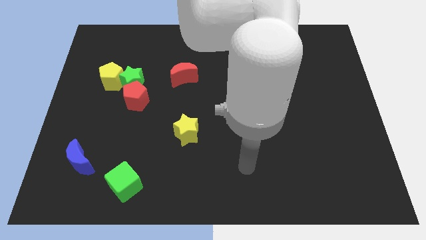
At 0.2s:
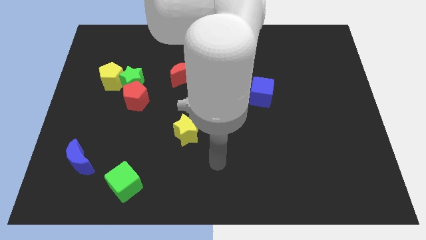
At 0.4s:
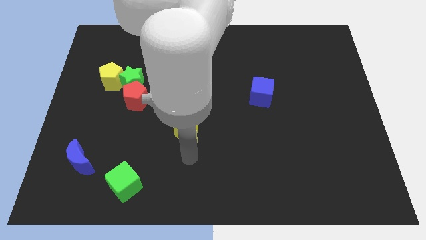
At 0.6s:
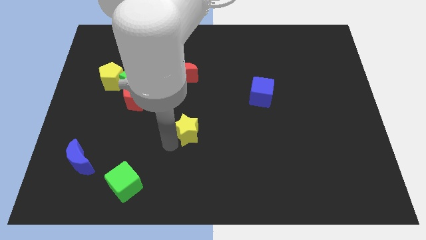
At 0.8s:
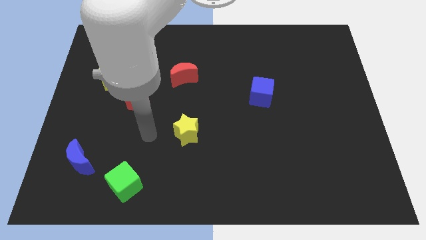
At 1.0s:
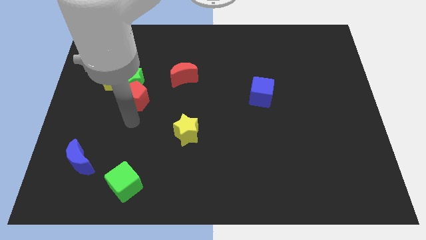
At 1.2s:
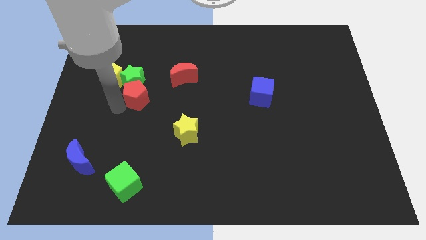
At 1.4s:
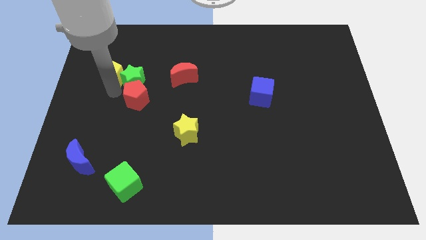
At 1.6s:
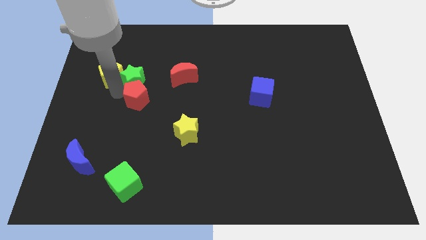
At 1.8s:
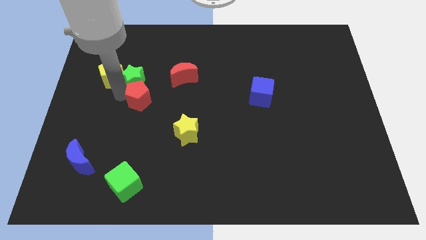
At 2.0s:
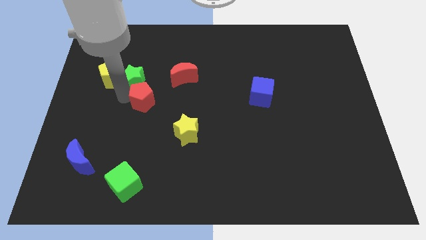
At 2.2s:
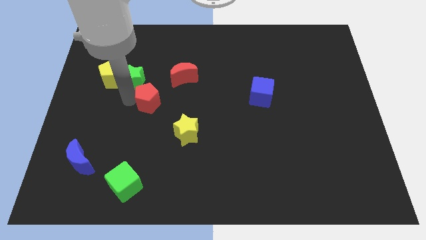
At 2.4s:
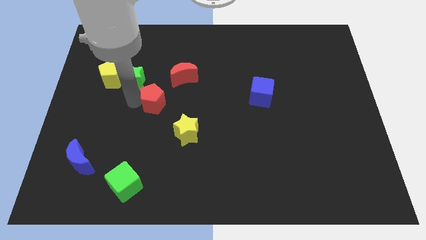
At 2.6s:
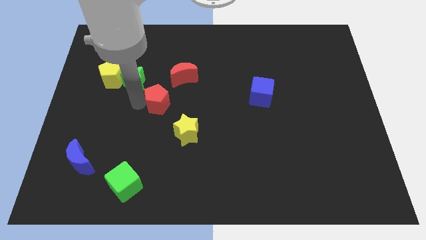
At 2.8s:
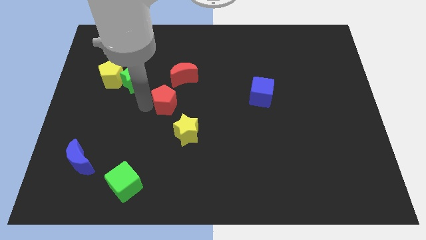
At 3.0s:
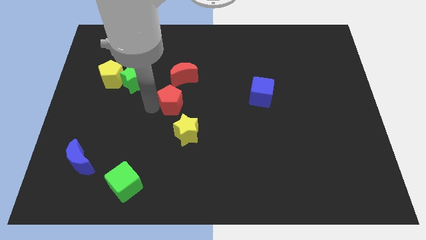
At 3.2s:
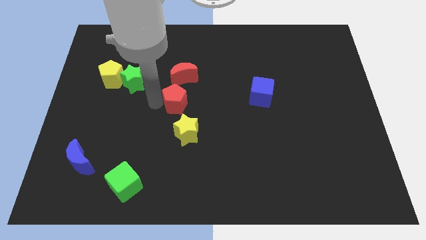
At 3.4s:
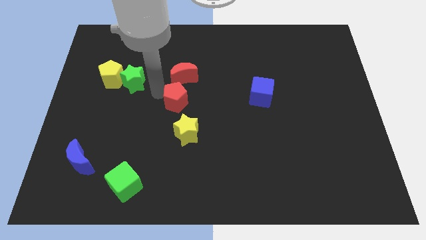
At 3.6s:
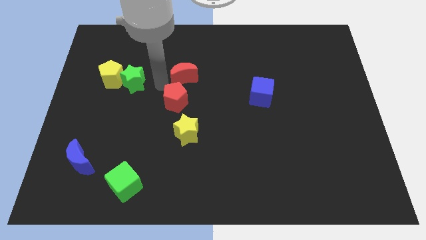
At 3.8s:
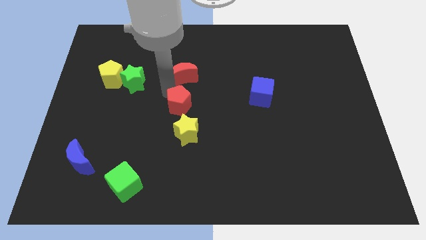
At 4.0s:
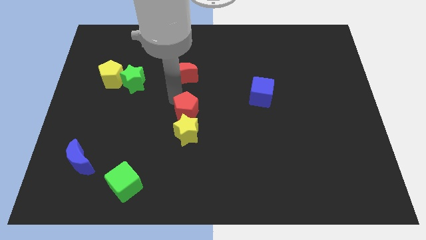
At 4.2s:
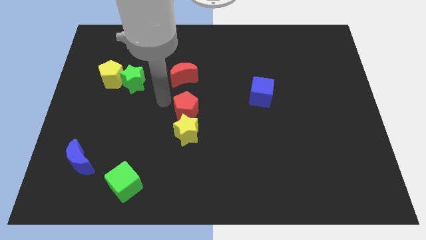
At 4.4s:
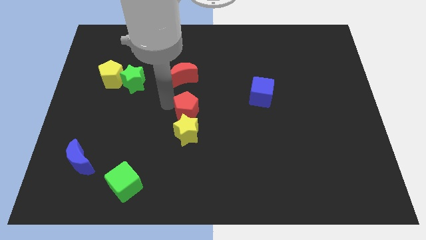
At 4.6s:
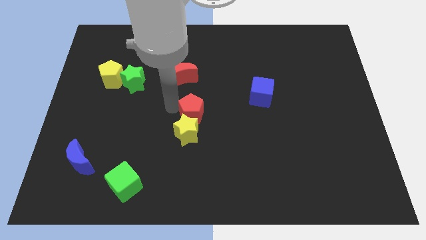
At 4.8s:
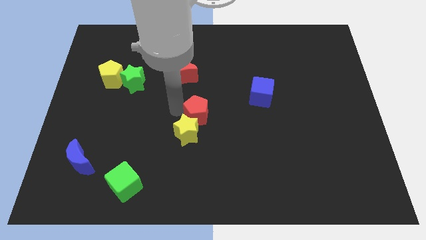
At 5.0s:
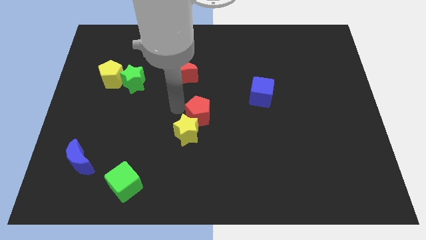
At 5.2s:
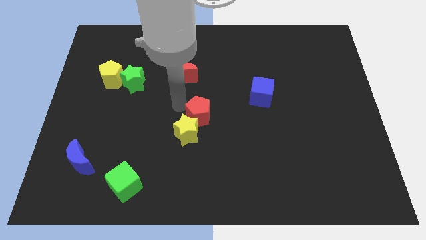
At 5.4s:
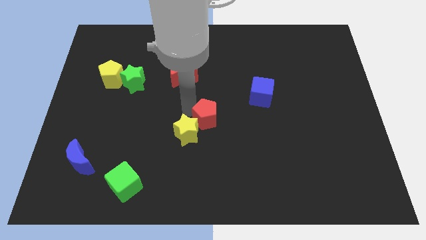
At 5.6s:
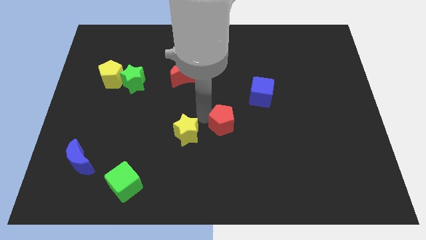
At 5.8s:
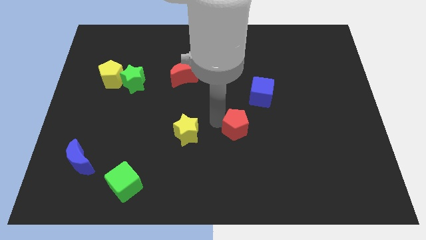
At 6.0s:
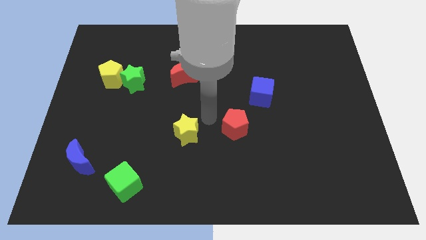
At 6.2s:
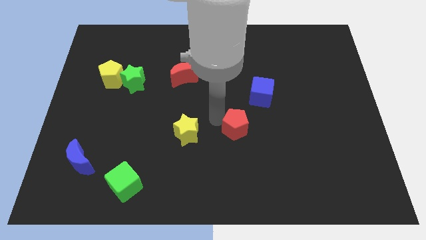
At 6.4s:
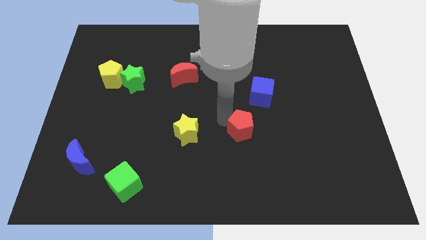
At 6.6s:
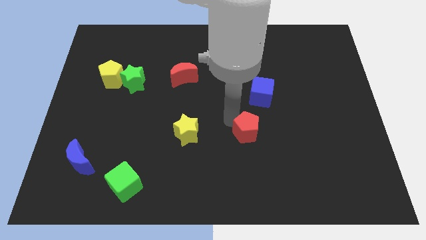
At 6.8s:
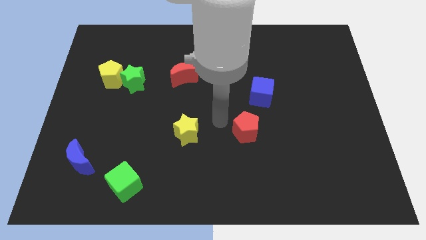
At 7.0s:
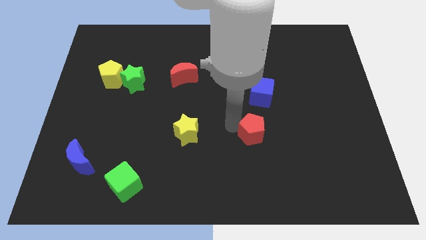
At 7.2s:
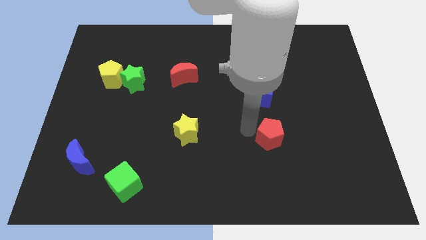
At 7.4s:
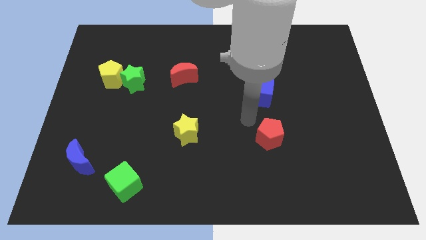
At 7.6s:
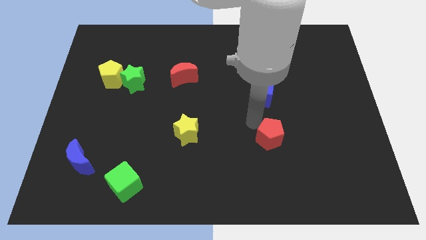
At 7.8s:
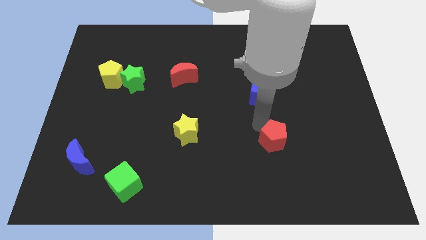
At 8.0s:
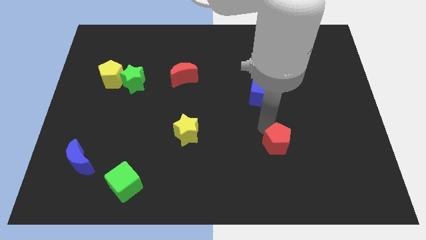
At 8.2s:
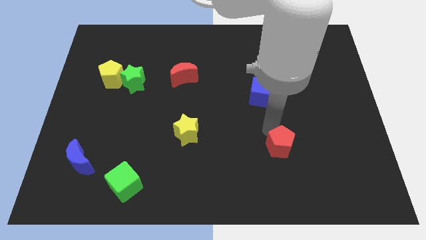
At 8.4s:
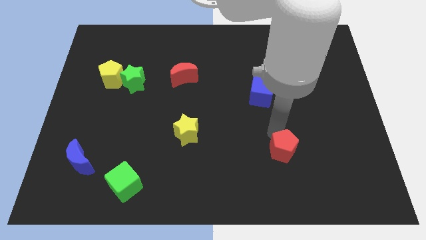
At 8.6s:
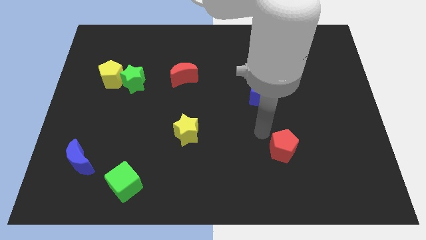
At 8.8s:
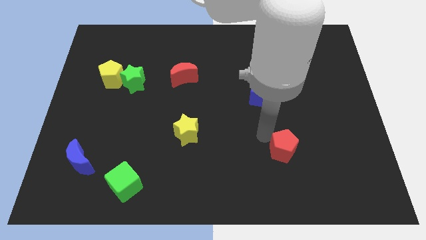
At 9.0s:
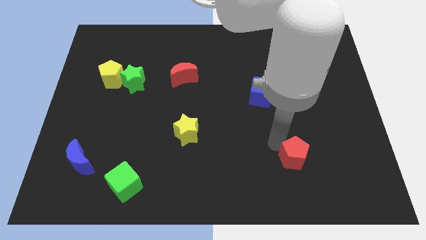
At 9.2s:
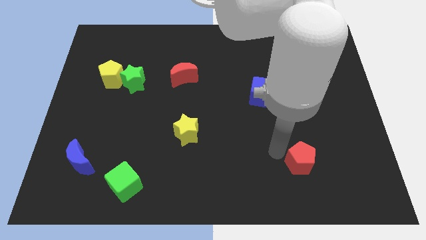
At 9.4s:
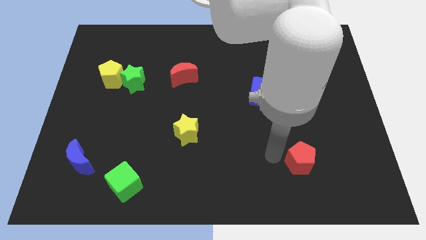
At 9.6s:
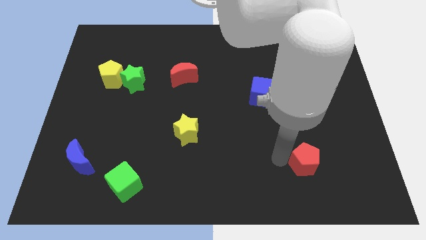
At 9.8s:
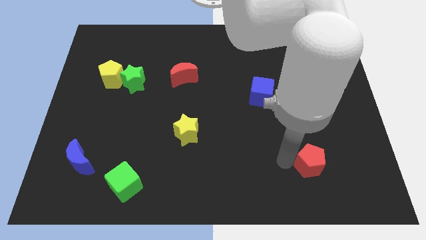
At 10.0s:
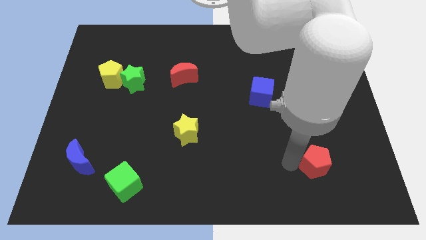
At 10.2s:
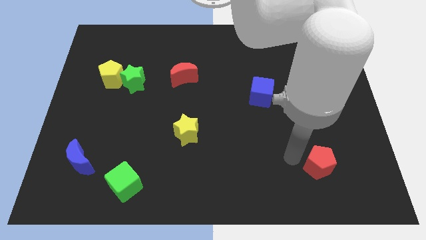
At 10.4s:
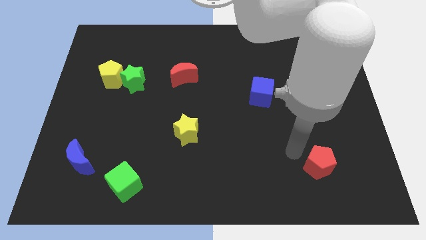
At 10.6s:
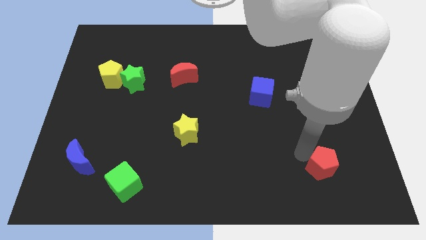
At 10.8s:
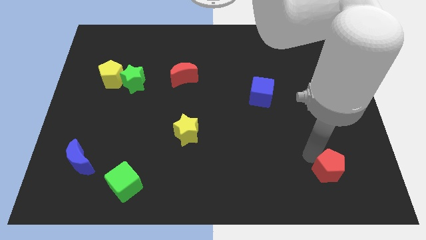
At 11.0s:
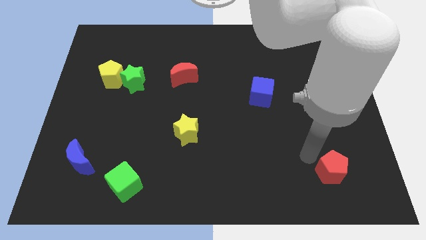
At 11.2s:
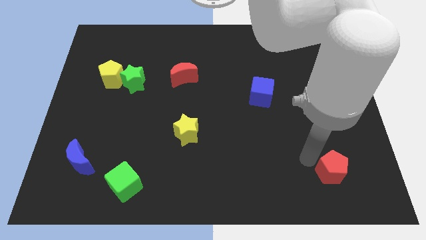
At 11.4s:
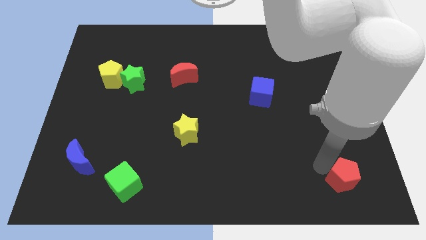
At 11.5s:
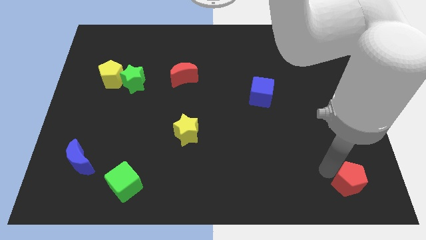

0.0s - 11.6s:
move the red pentagon to the bottom right of the board

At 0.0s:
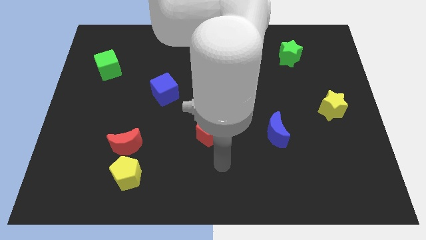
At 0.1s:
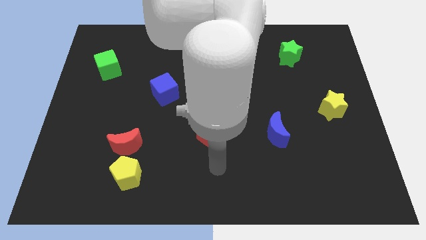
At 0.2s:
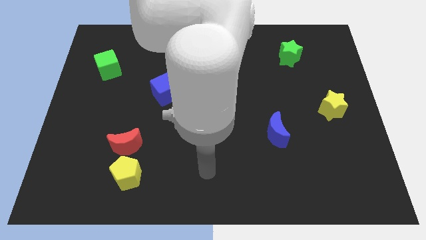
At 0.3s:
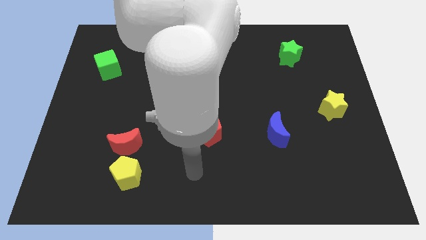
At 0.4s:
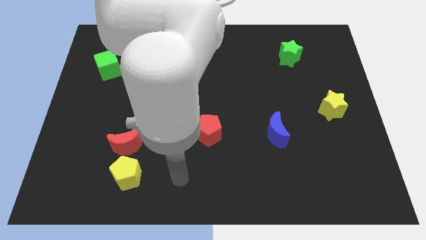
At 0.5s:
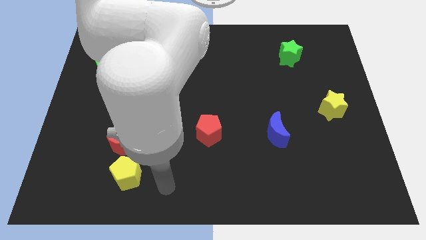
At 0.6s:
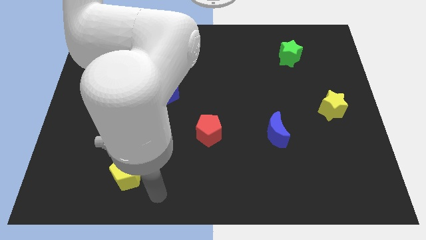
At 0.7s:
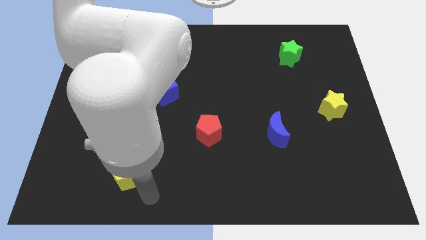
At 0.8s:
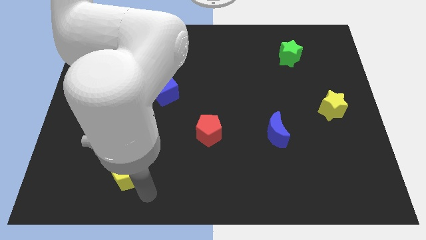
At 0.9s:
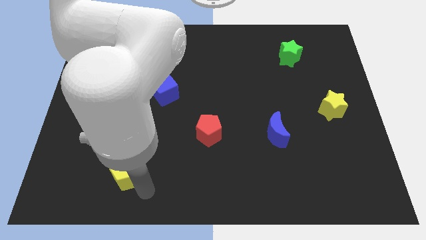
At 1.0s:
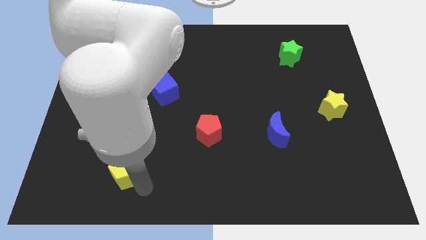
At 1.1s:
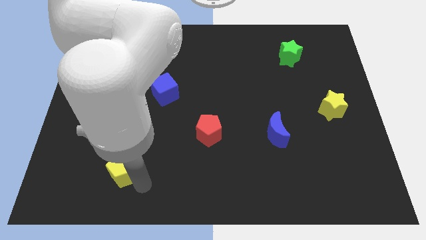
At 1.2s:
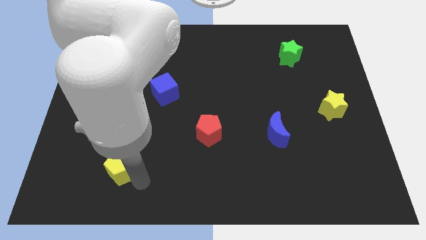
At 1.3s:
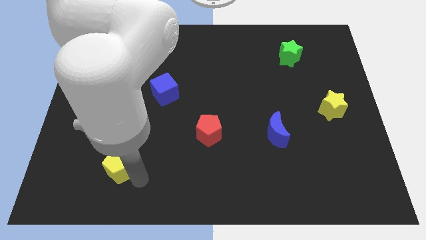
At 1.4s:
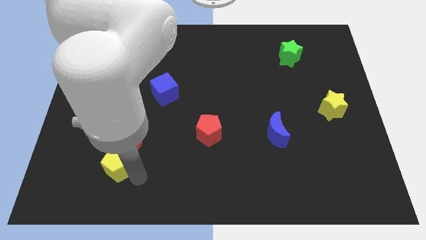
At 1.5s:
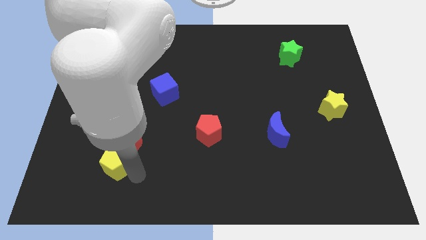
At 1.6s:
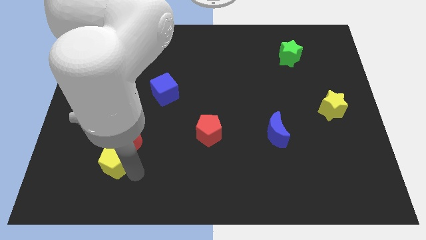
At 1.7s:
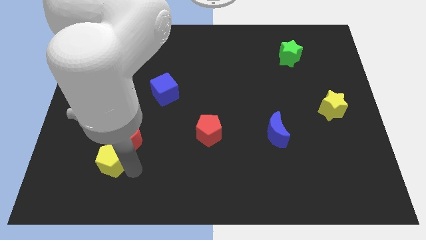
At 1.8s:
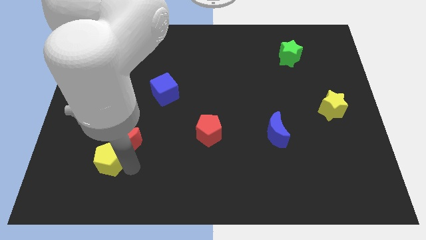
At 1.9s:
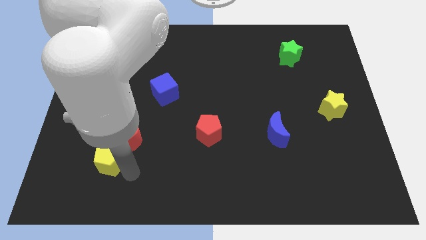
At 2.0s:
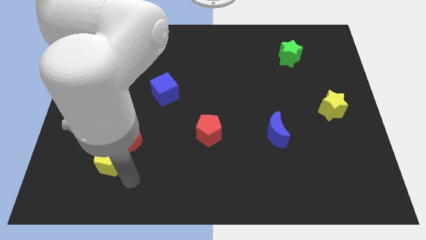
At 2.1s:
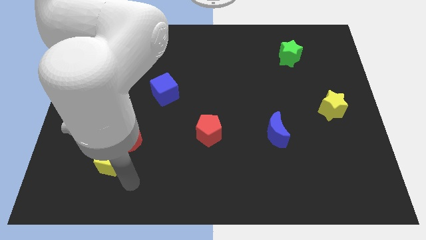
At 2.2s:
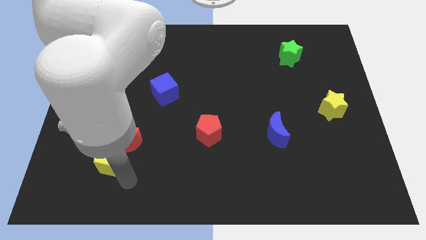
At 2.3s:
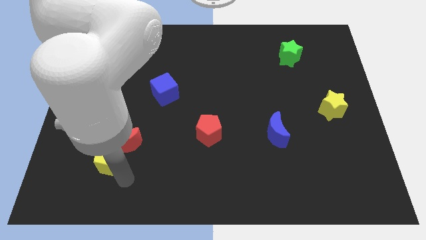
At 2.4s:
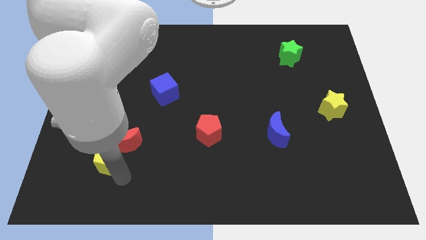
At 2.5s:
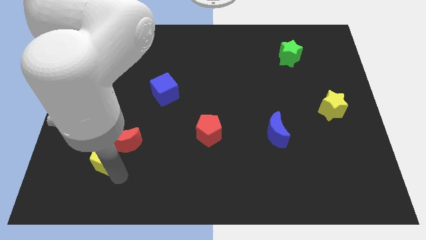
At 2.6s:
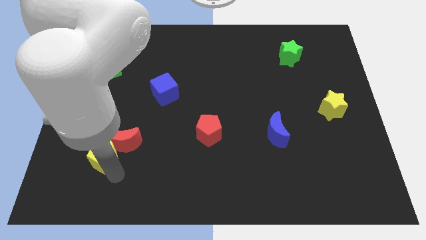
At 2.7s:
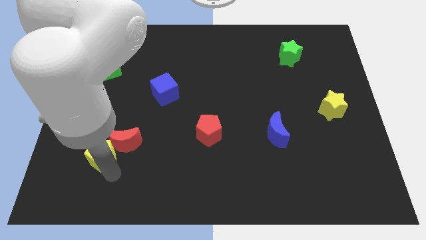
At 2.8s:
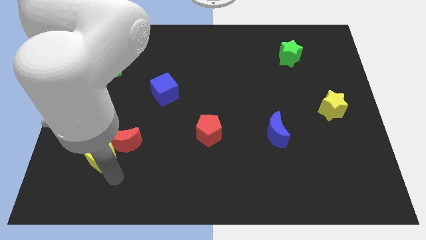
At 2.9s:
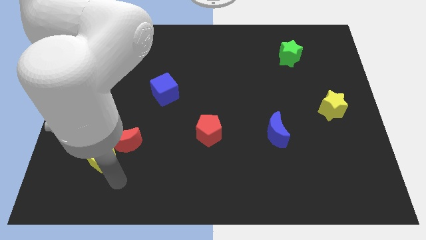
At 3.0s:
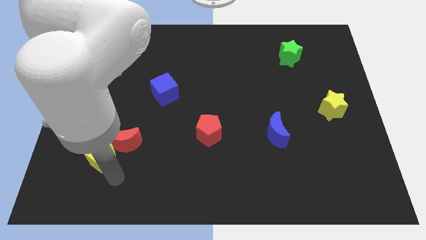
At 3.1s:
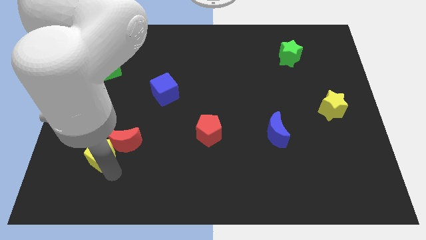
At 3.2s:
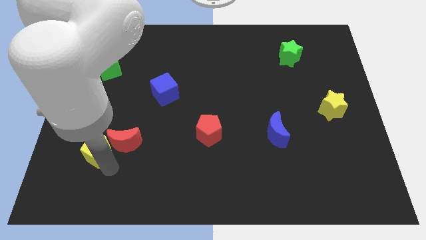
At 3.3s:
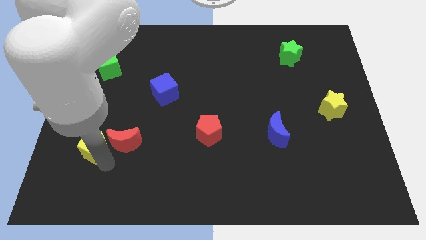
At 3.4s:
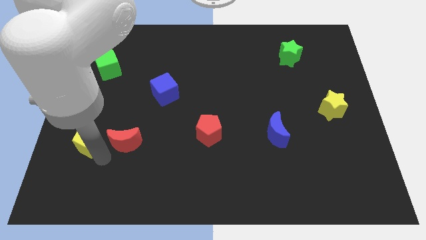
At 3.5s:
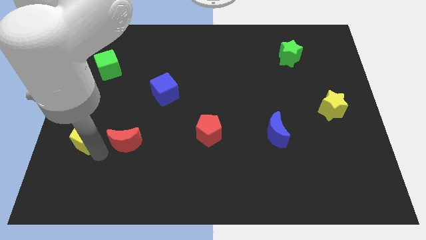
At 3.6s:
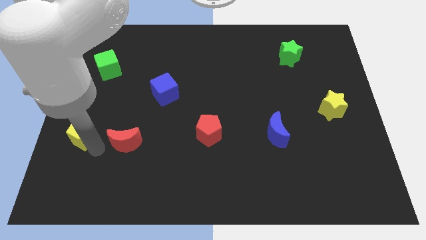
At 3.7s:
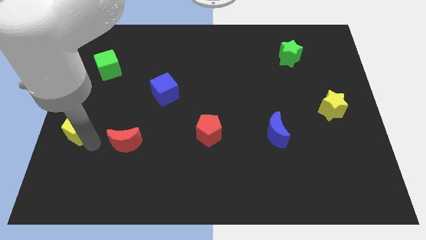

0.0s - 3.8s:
push the yellow pentagon to the left side of the board
